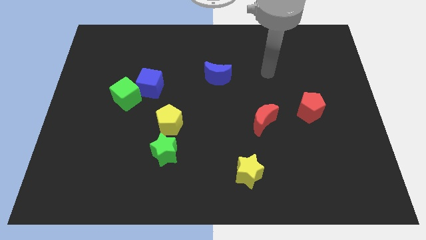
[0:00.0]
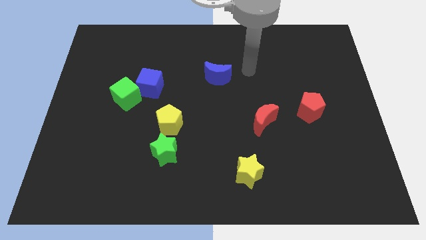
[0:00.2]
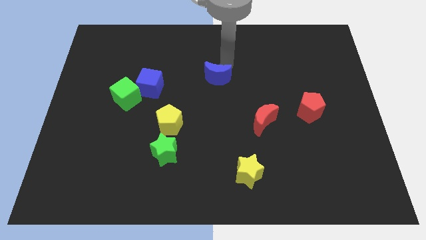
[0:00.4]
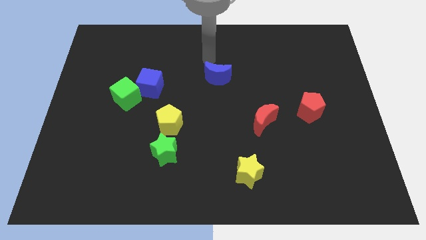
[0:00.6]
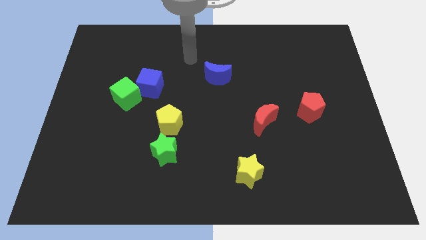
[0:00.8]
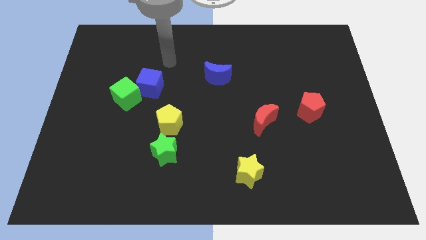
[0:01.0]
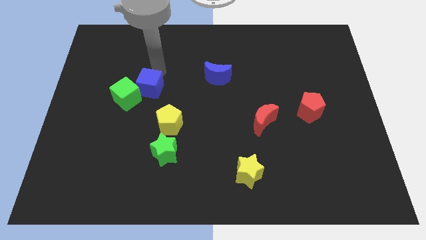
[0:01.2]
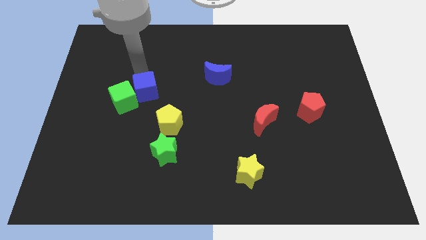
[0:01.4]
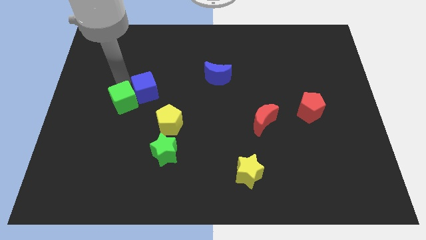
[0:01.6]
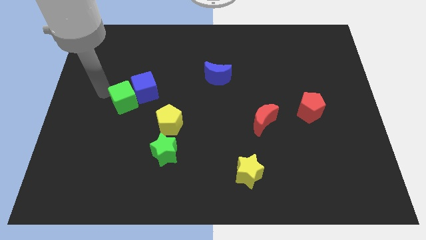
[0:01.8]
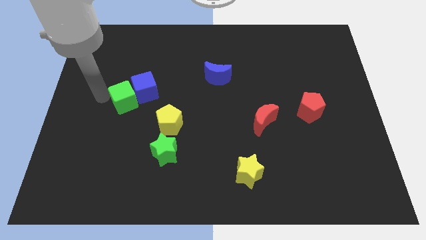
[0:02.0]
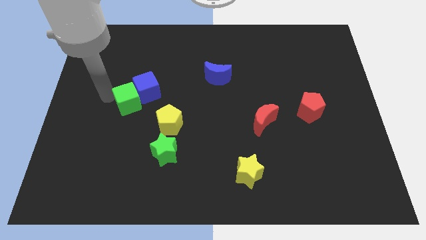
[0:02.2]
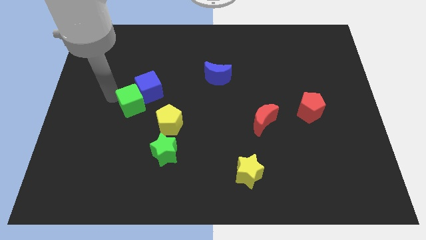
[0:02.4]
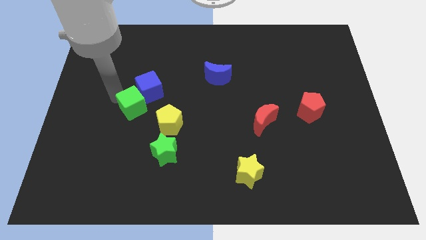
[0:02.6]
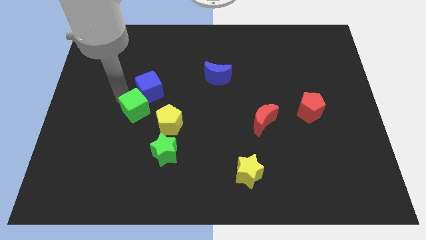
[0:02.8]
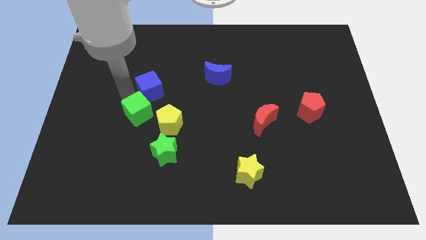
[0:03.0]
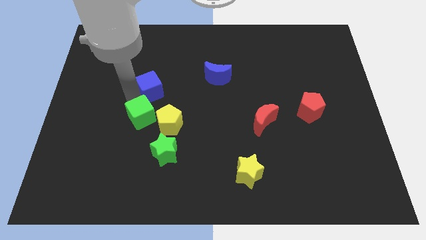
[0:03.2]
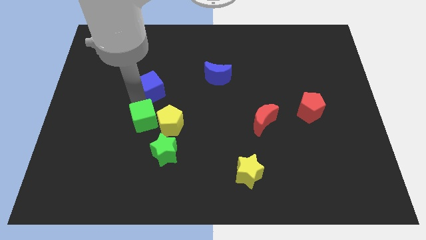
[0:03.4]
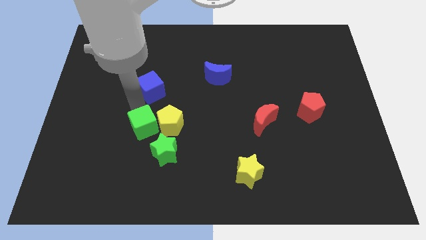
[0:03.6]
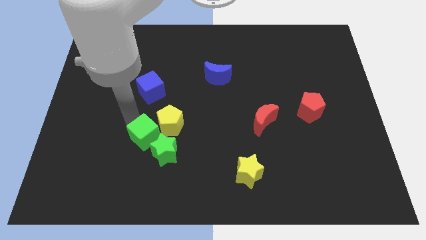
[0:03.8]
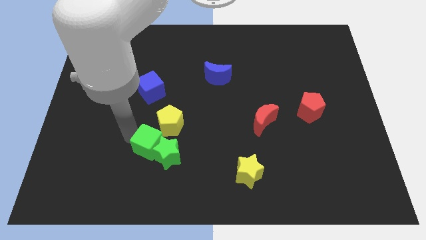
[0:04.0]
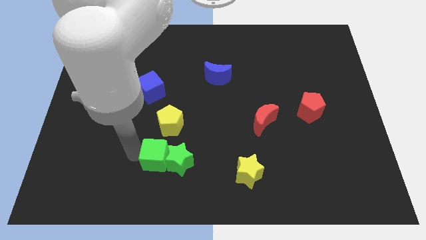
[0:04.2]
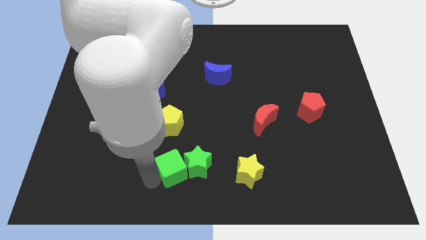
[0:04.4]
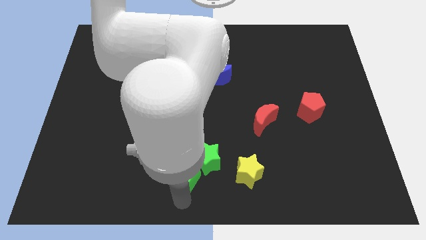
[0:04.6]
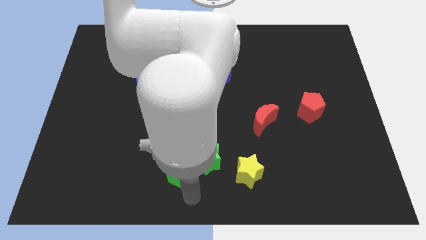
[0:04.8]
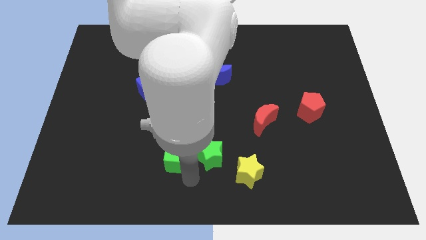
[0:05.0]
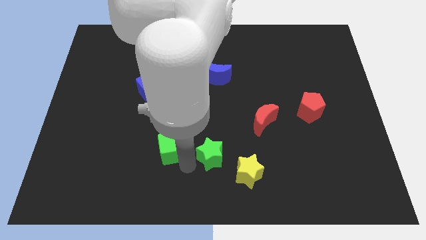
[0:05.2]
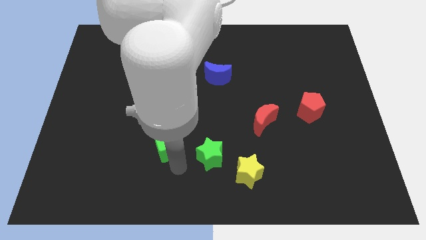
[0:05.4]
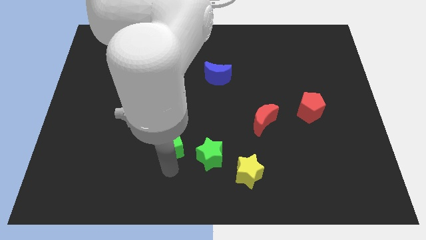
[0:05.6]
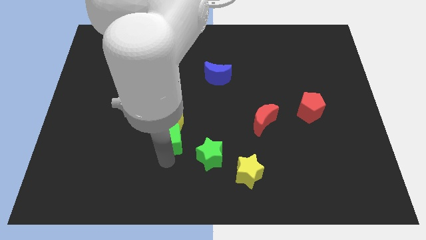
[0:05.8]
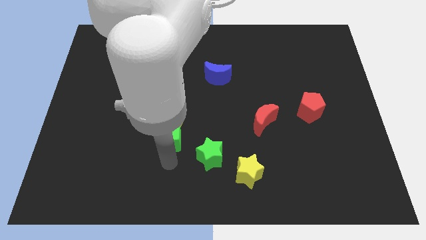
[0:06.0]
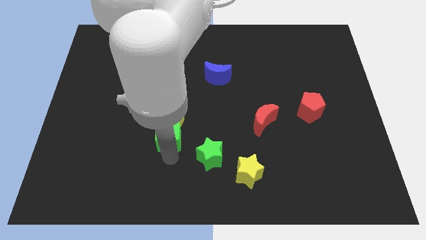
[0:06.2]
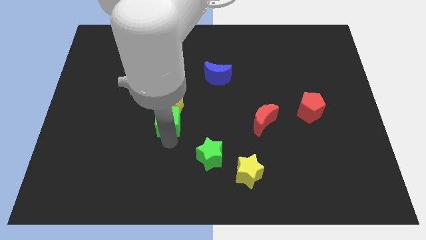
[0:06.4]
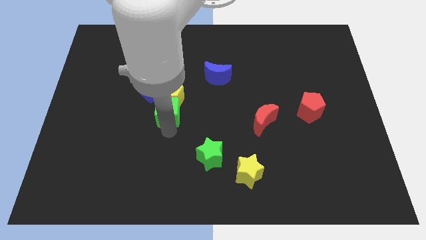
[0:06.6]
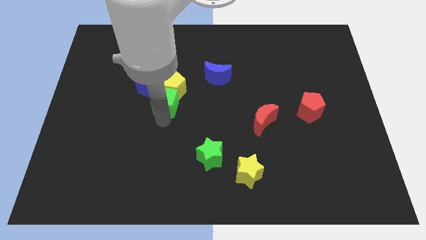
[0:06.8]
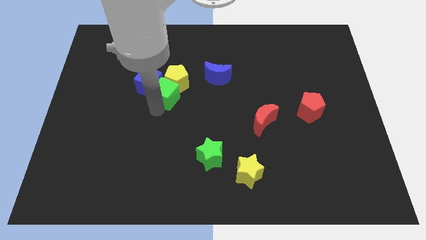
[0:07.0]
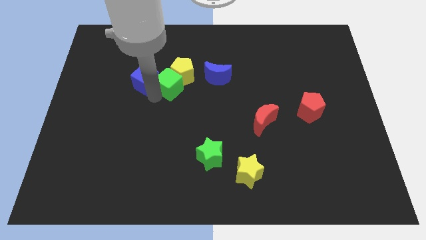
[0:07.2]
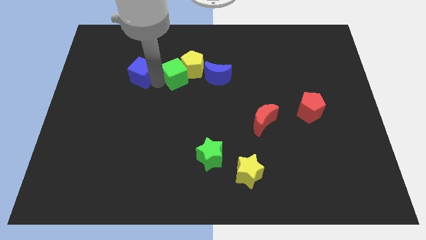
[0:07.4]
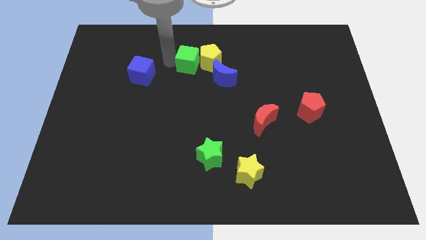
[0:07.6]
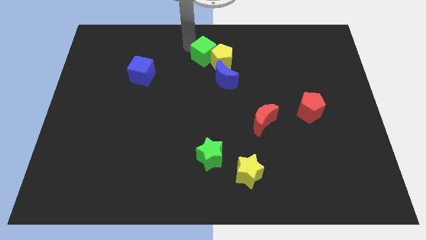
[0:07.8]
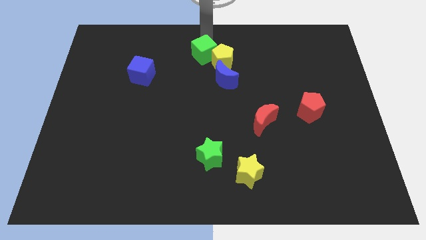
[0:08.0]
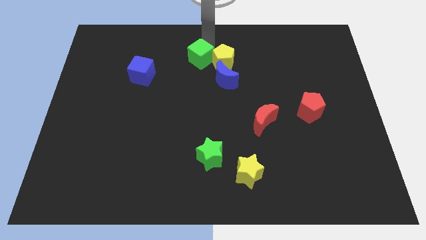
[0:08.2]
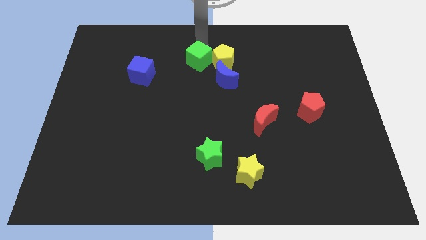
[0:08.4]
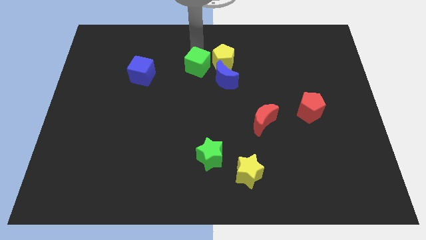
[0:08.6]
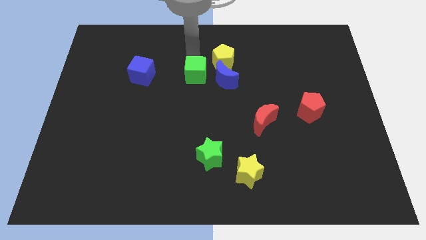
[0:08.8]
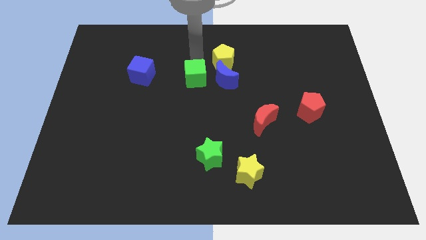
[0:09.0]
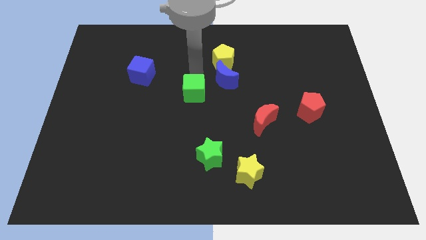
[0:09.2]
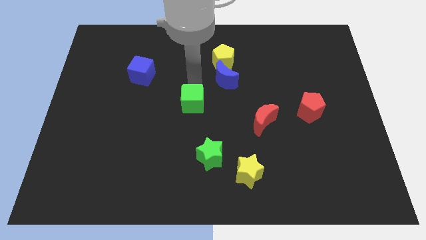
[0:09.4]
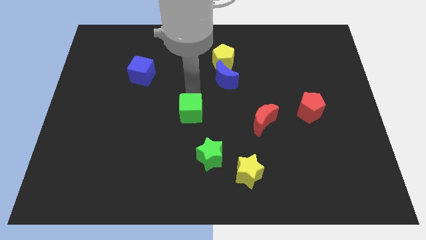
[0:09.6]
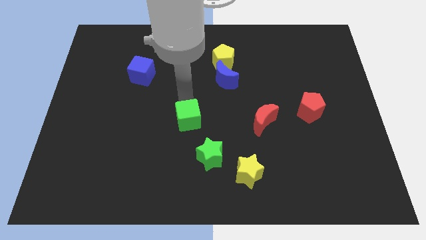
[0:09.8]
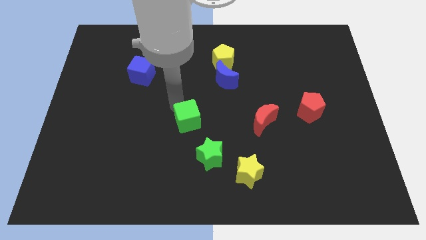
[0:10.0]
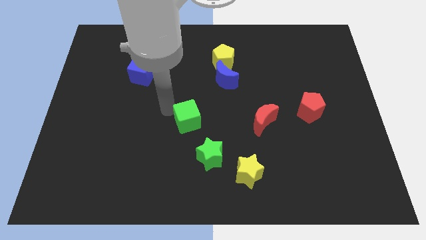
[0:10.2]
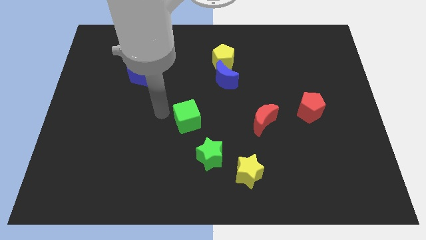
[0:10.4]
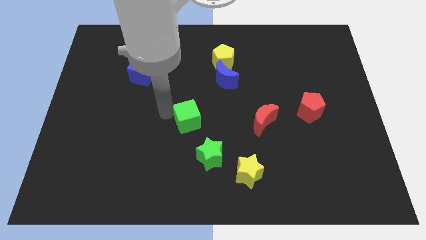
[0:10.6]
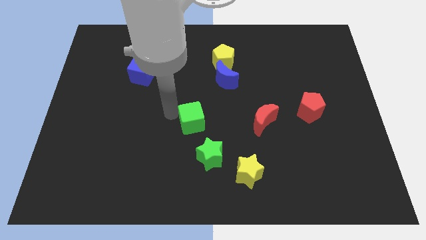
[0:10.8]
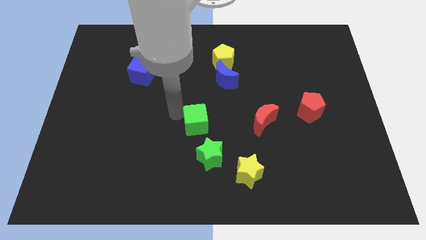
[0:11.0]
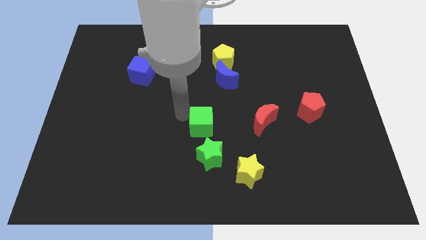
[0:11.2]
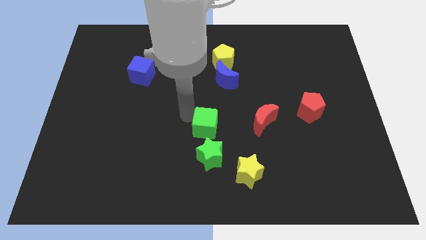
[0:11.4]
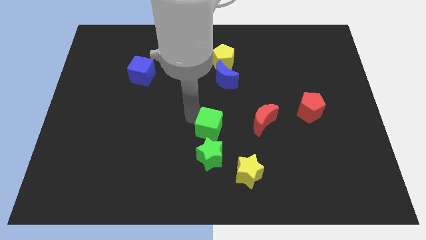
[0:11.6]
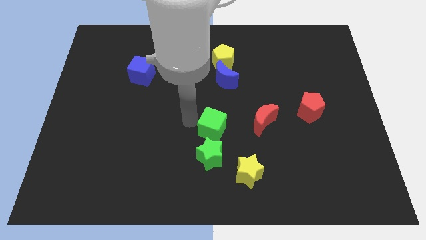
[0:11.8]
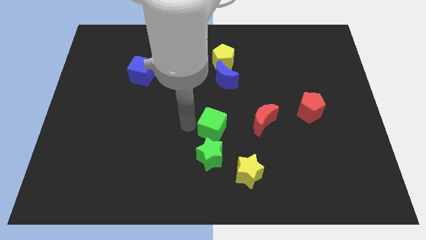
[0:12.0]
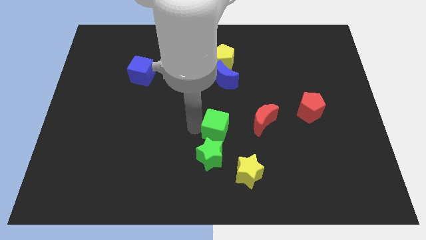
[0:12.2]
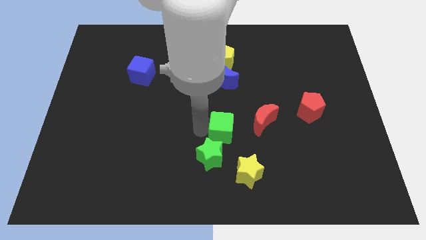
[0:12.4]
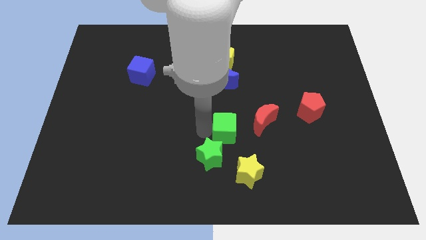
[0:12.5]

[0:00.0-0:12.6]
put the green cube to the top side of the yellow star

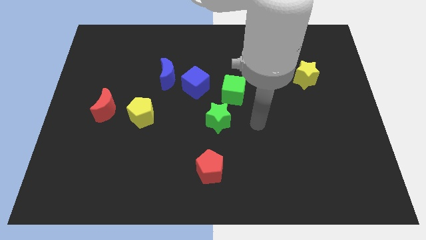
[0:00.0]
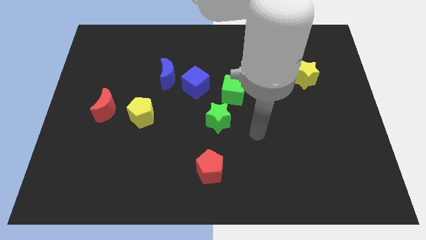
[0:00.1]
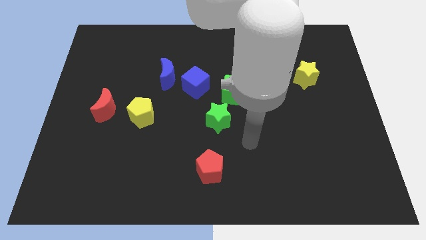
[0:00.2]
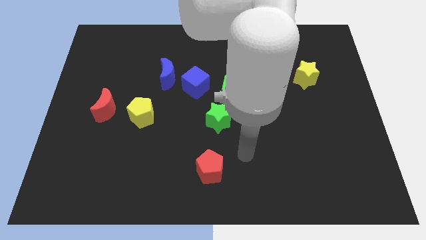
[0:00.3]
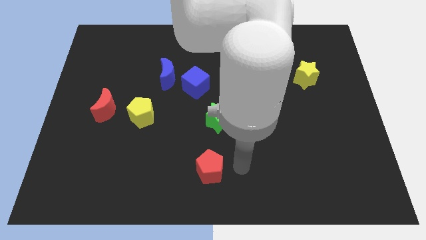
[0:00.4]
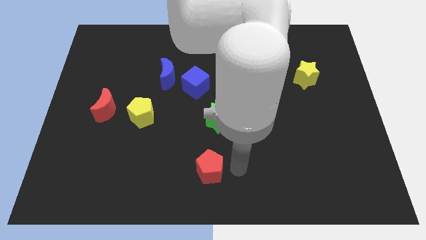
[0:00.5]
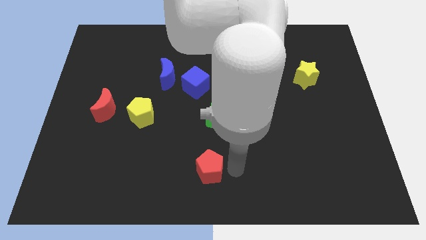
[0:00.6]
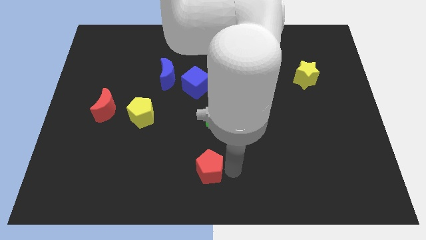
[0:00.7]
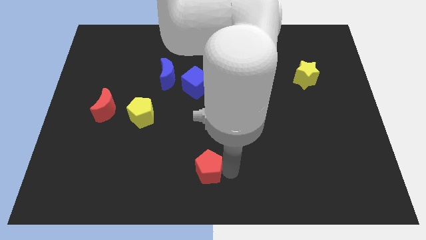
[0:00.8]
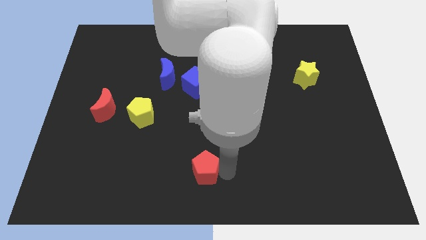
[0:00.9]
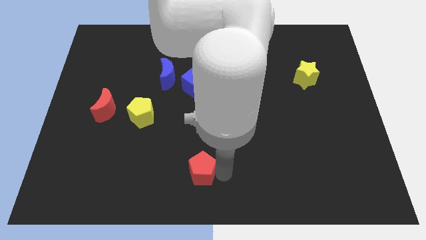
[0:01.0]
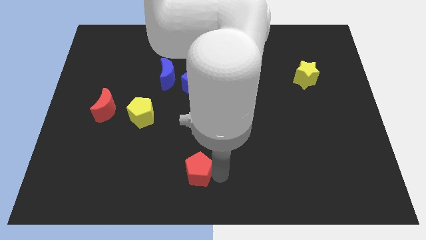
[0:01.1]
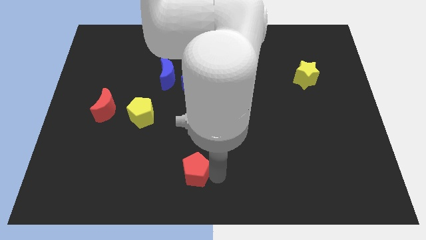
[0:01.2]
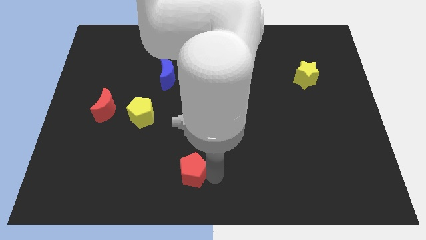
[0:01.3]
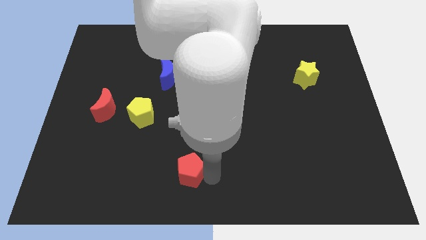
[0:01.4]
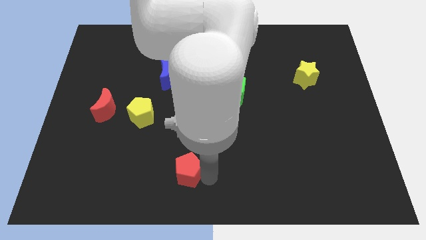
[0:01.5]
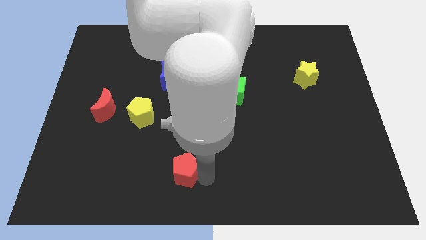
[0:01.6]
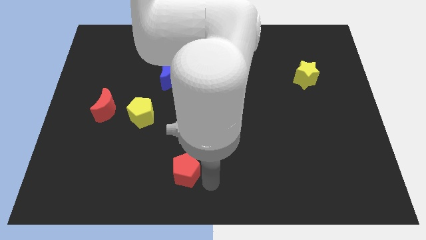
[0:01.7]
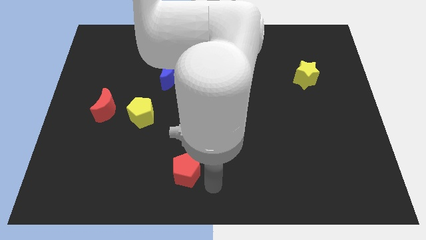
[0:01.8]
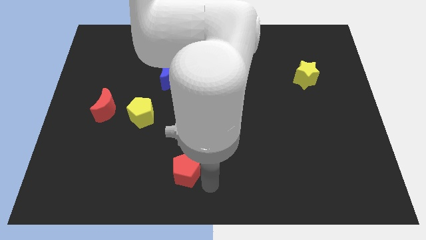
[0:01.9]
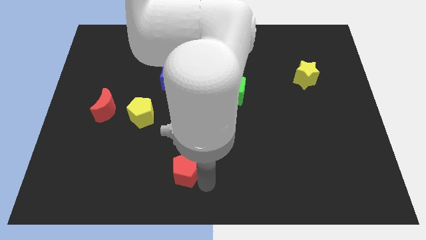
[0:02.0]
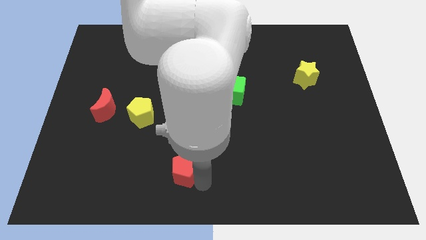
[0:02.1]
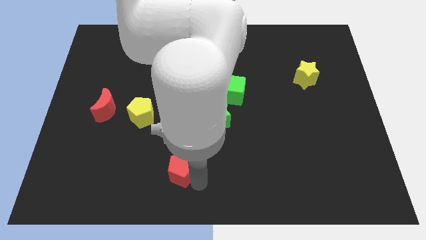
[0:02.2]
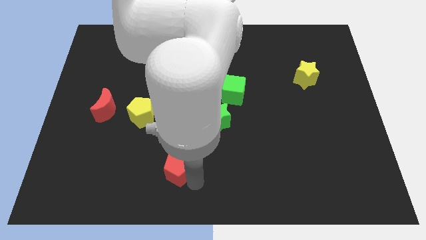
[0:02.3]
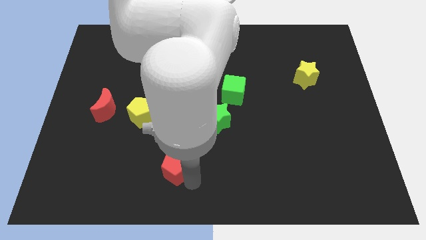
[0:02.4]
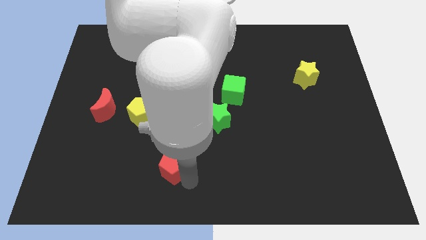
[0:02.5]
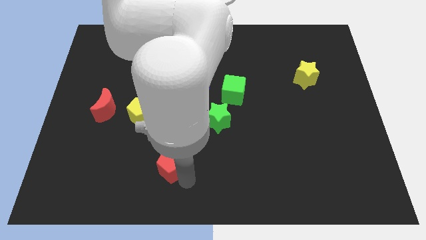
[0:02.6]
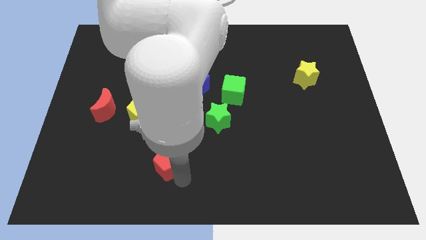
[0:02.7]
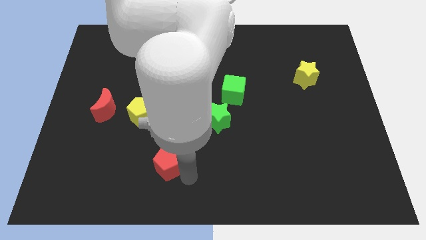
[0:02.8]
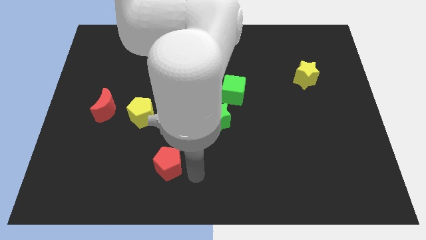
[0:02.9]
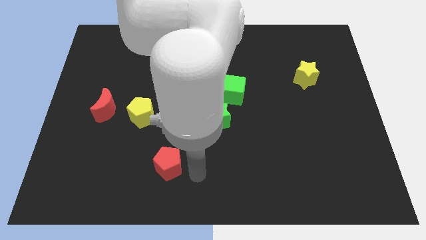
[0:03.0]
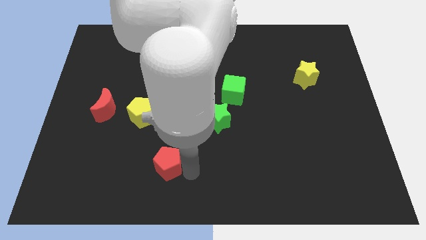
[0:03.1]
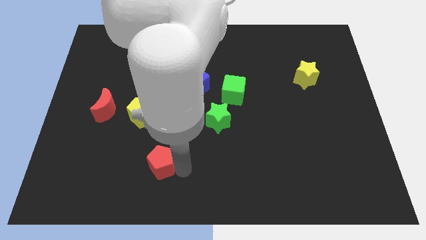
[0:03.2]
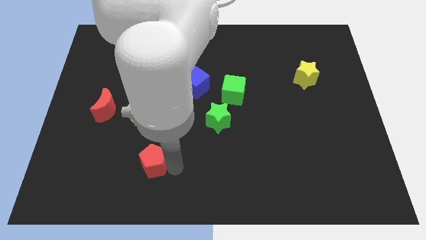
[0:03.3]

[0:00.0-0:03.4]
put the red pentagon below the yellow pentagon
